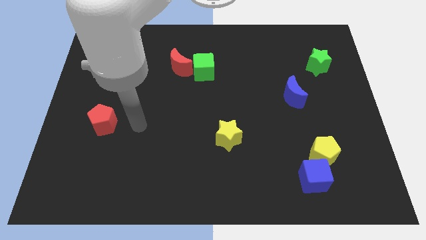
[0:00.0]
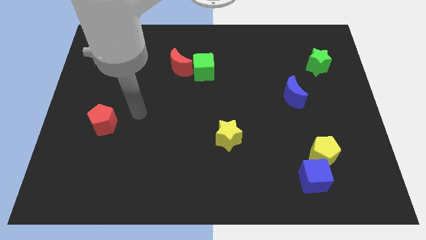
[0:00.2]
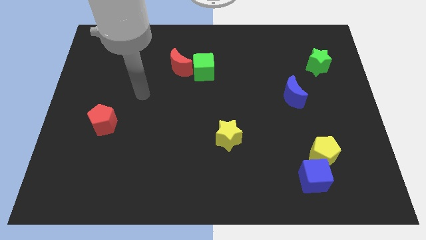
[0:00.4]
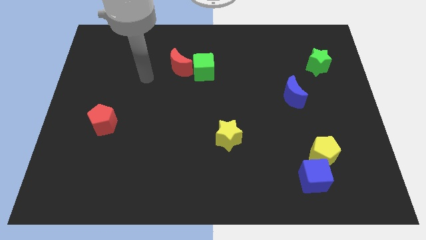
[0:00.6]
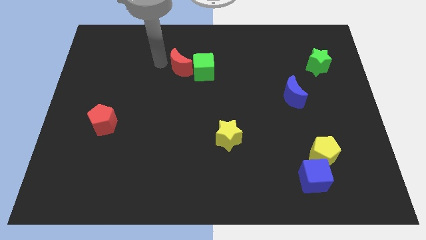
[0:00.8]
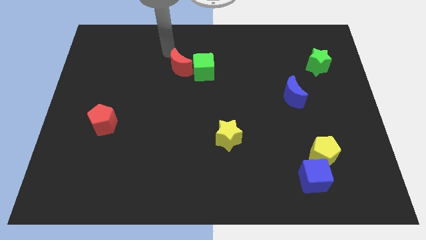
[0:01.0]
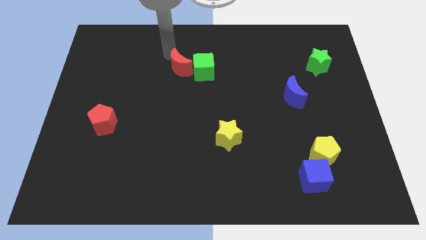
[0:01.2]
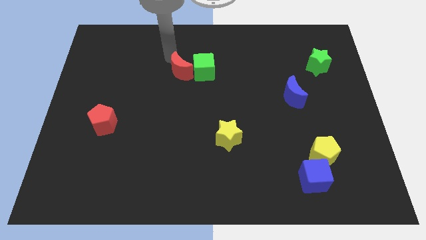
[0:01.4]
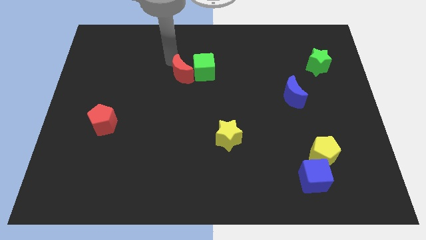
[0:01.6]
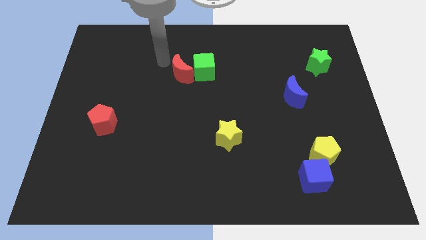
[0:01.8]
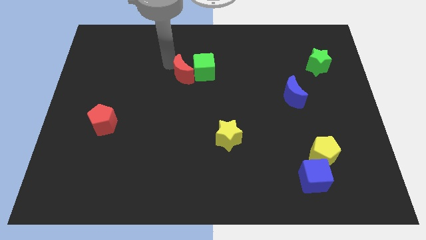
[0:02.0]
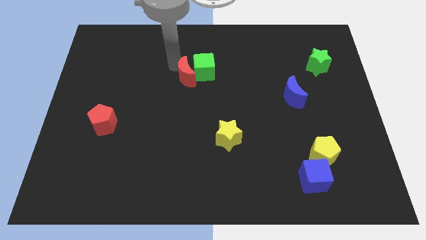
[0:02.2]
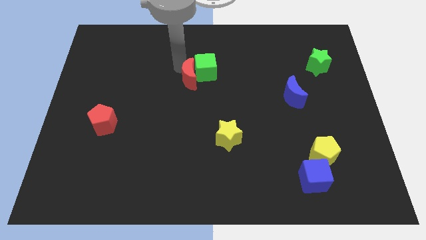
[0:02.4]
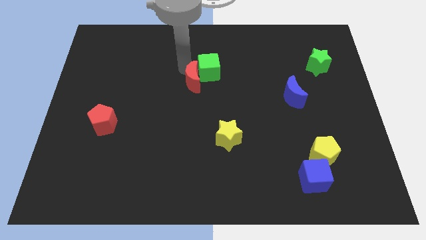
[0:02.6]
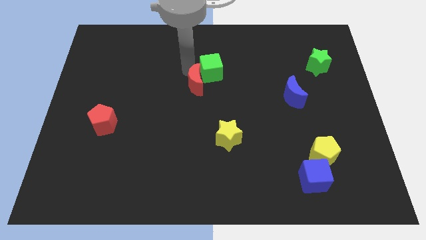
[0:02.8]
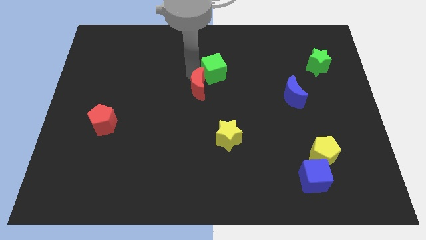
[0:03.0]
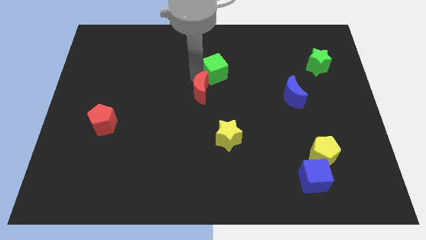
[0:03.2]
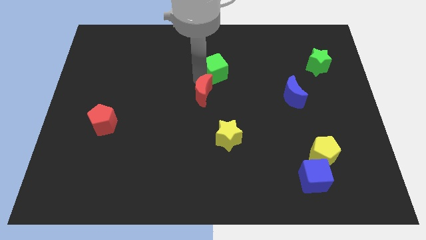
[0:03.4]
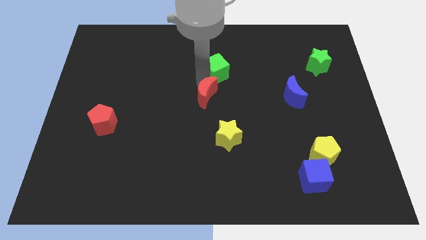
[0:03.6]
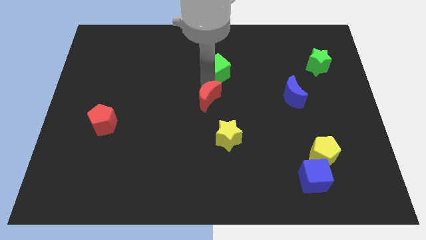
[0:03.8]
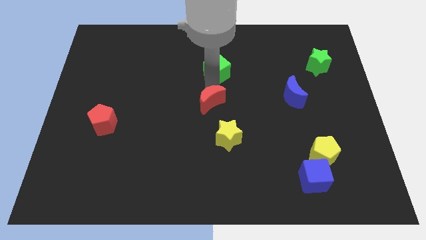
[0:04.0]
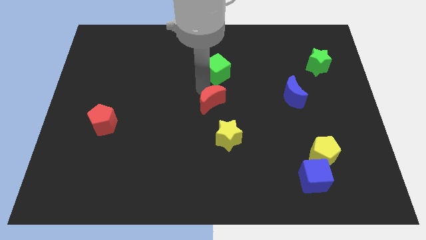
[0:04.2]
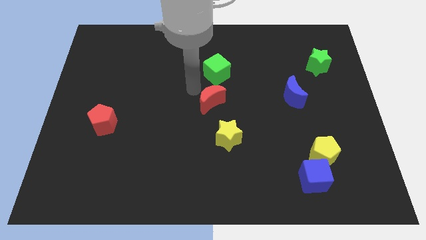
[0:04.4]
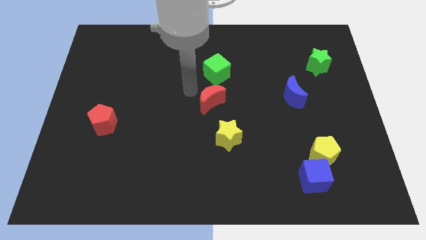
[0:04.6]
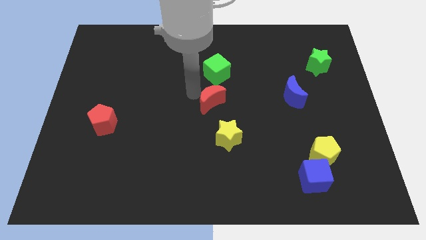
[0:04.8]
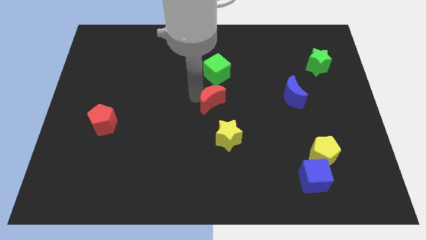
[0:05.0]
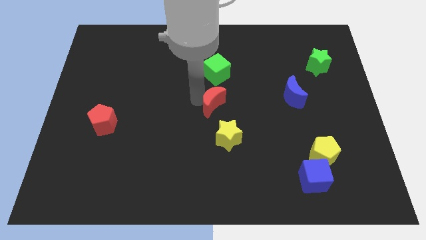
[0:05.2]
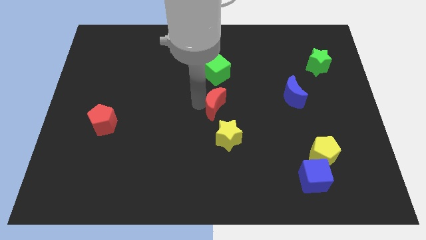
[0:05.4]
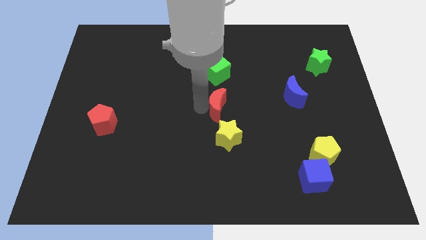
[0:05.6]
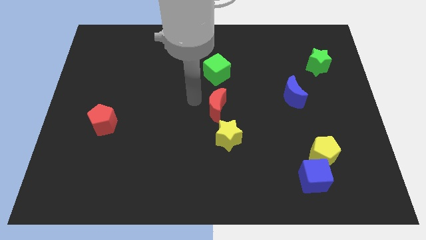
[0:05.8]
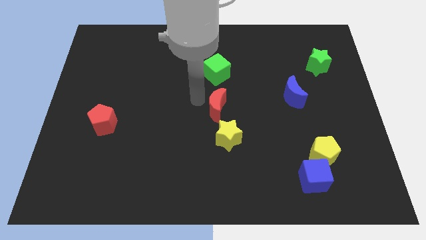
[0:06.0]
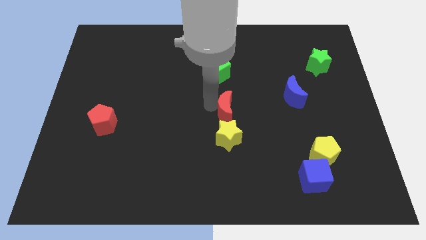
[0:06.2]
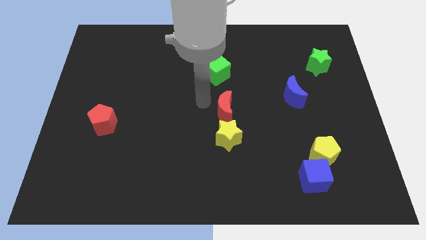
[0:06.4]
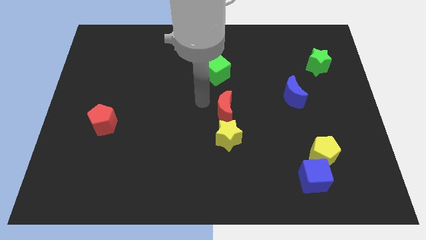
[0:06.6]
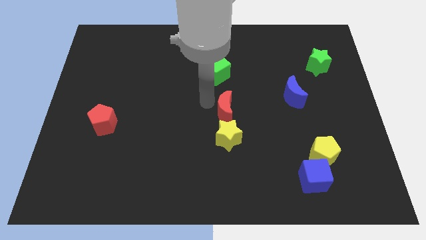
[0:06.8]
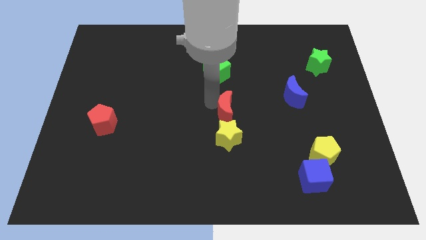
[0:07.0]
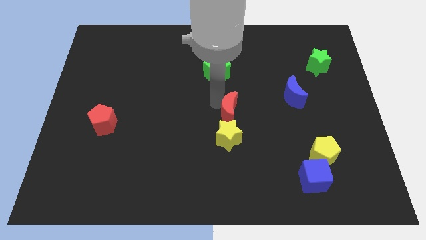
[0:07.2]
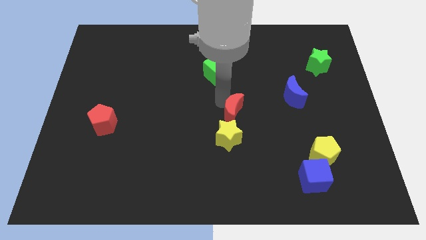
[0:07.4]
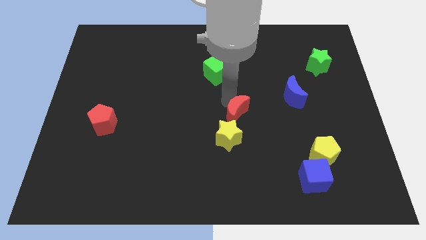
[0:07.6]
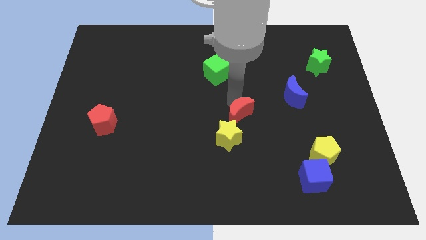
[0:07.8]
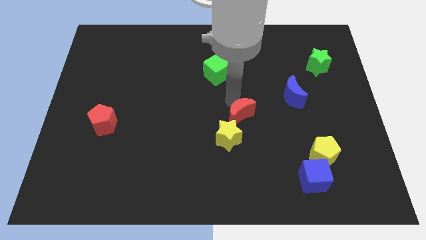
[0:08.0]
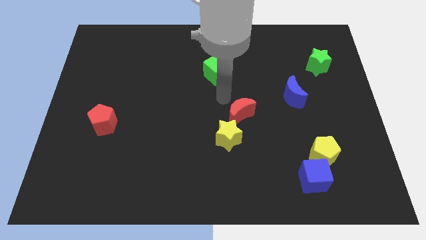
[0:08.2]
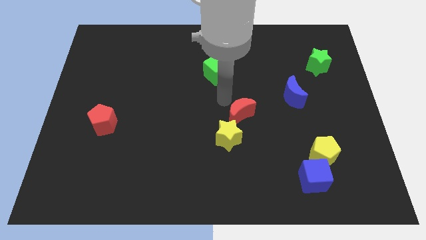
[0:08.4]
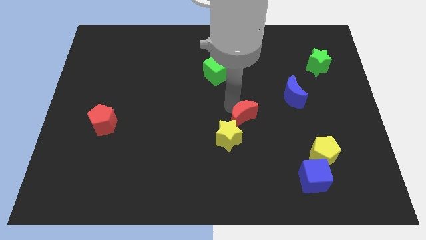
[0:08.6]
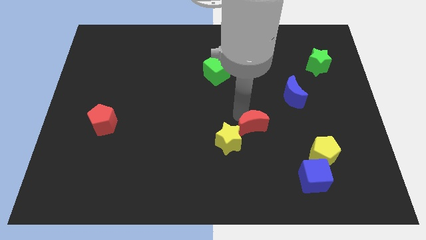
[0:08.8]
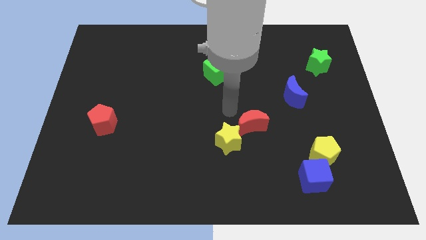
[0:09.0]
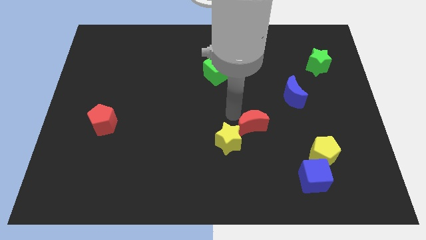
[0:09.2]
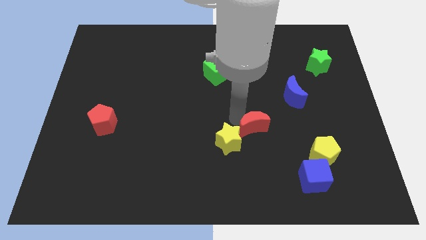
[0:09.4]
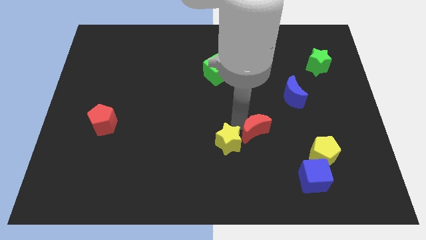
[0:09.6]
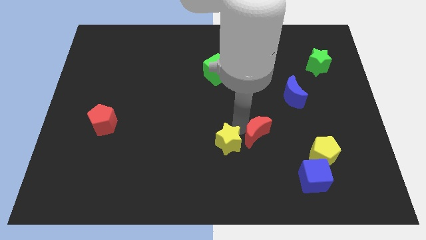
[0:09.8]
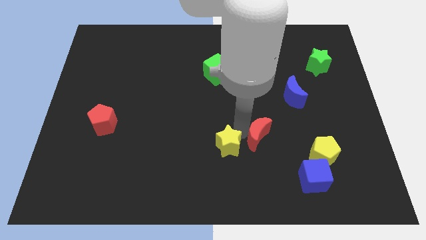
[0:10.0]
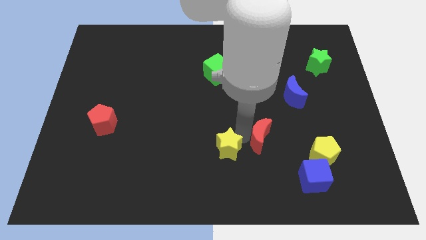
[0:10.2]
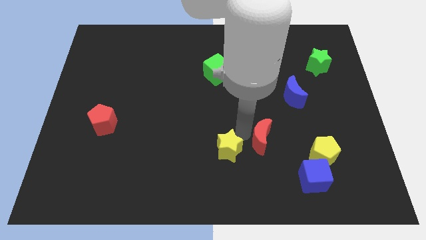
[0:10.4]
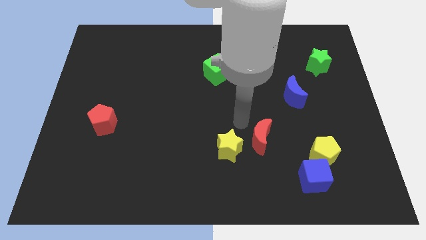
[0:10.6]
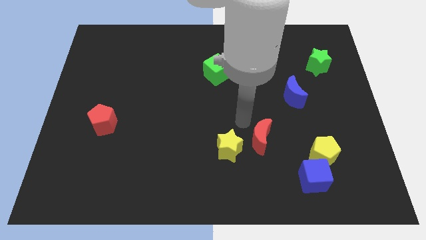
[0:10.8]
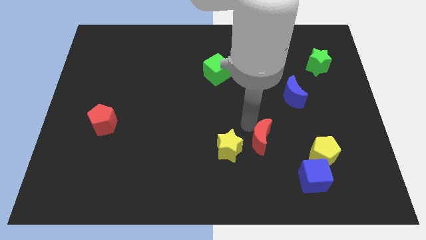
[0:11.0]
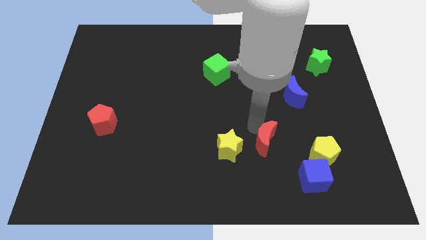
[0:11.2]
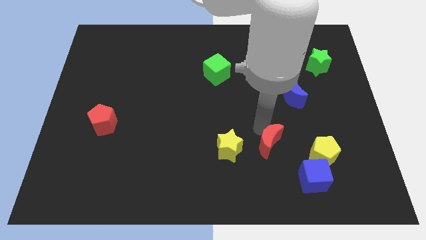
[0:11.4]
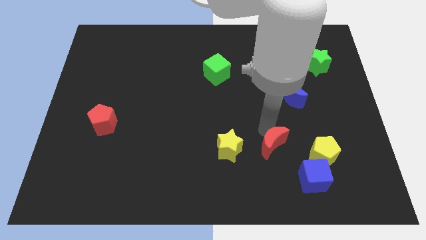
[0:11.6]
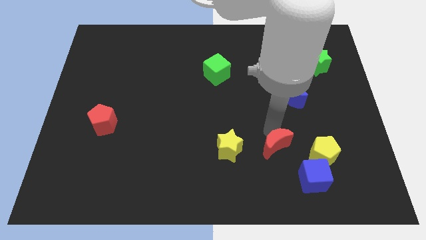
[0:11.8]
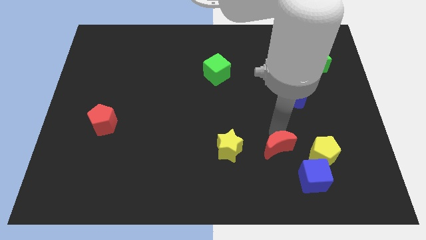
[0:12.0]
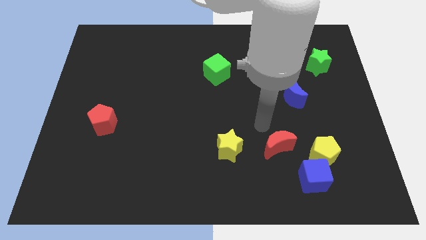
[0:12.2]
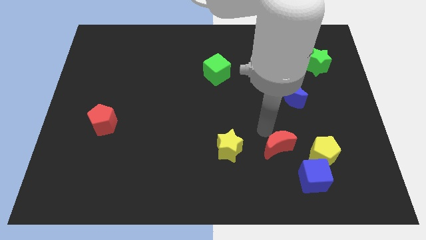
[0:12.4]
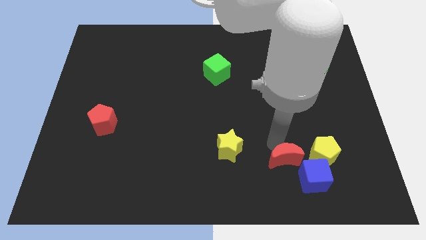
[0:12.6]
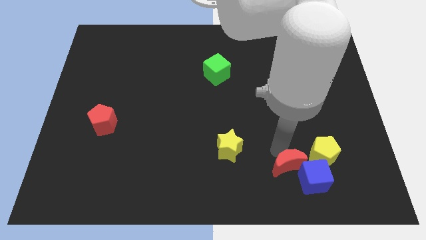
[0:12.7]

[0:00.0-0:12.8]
put the red moon diagonally down and to the left of the yellow pentagon

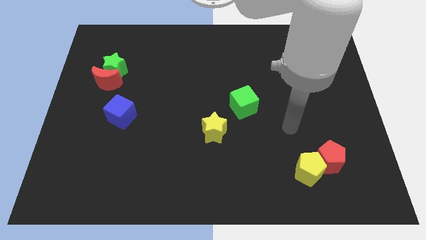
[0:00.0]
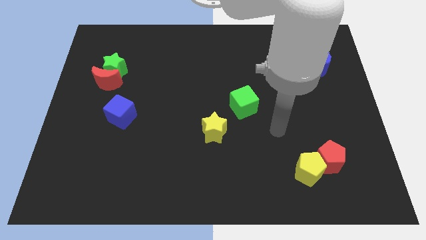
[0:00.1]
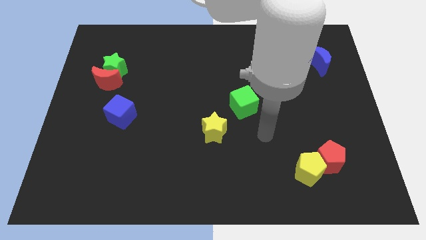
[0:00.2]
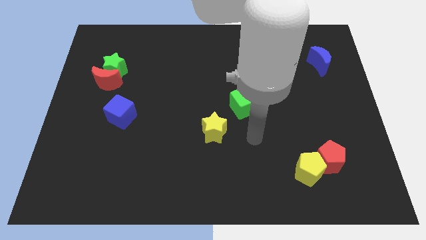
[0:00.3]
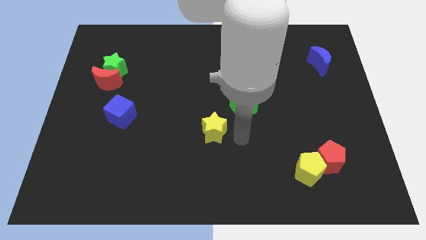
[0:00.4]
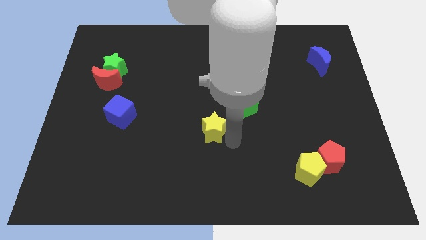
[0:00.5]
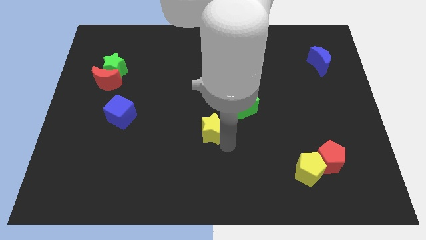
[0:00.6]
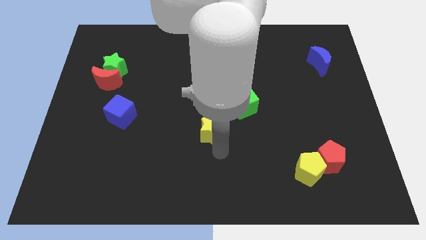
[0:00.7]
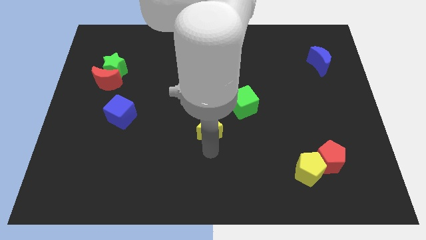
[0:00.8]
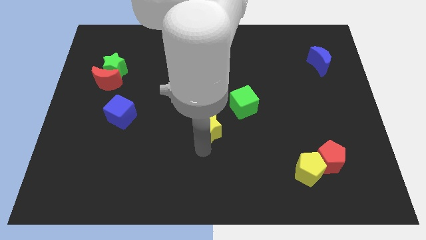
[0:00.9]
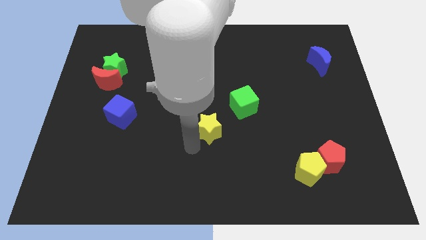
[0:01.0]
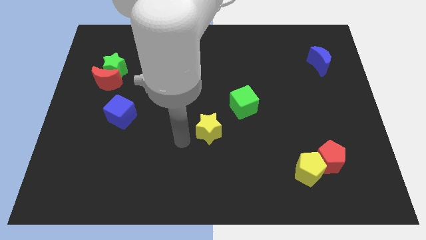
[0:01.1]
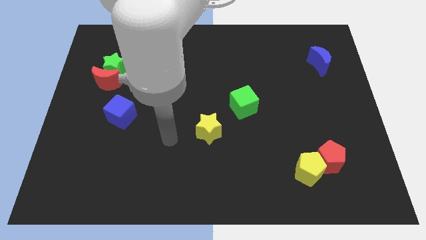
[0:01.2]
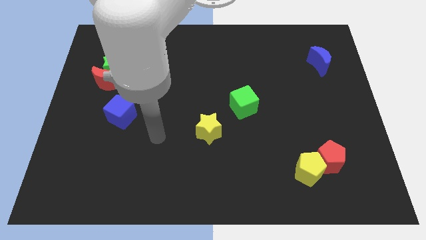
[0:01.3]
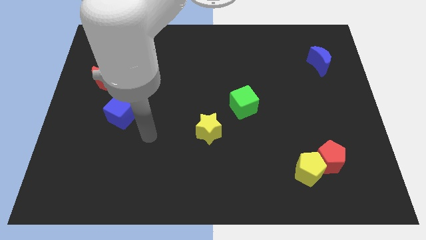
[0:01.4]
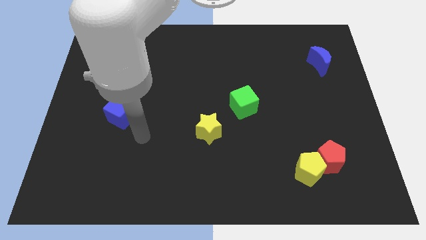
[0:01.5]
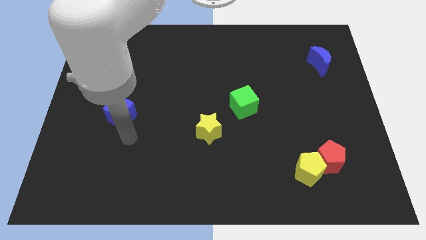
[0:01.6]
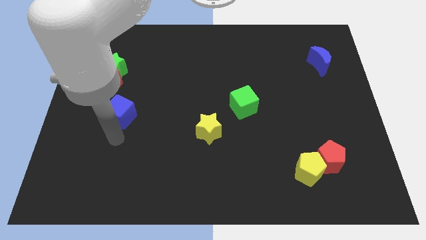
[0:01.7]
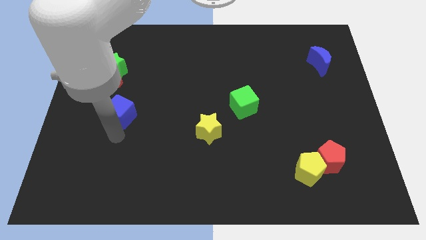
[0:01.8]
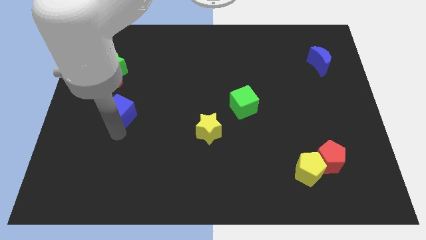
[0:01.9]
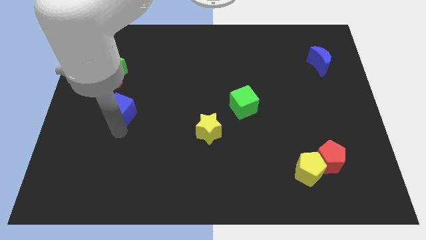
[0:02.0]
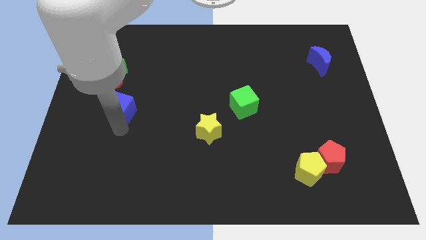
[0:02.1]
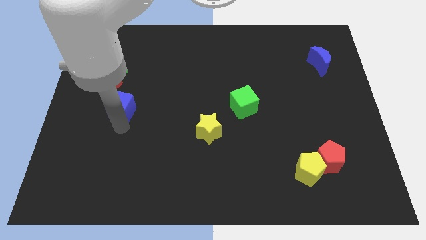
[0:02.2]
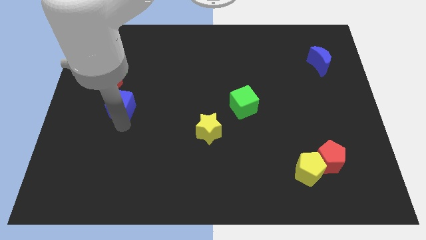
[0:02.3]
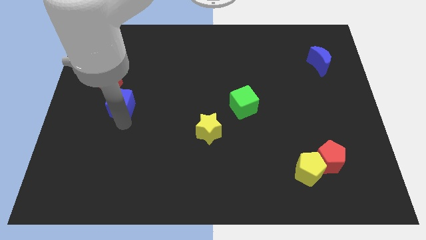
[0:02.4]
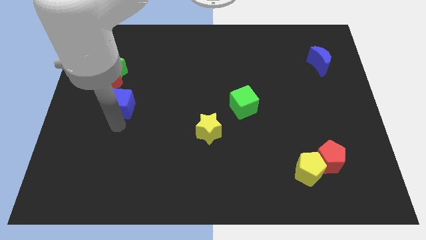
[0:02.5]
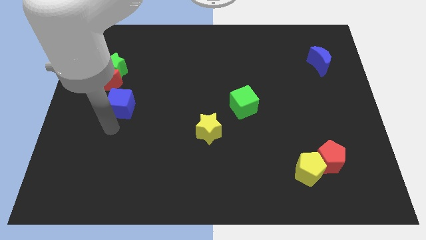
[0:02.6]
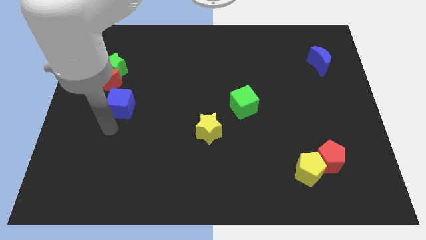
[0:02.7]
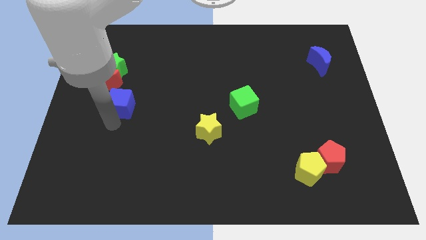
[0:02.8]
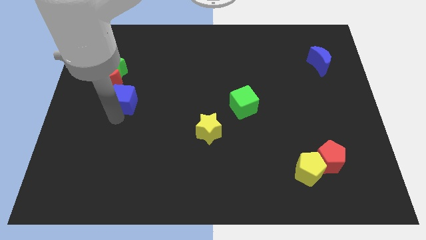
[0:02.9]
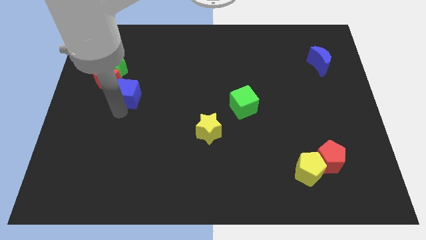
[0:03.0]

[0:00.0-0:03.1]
move the blue cube to the bottom right side of the green star
